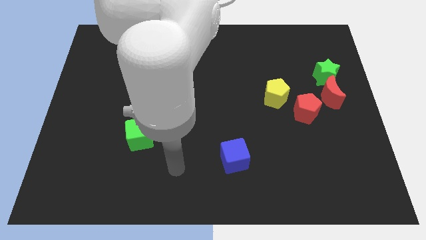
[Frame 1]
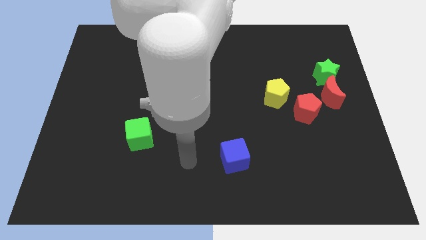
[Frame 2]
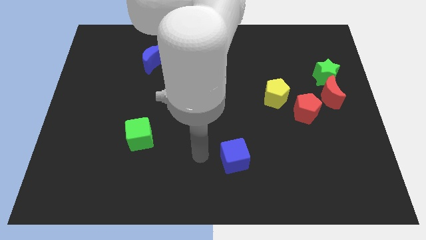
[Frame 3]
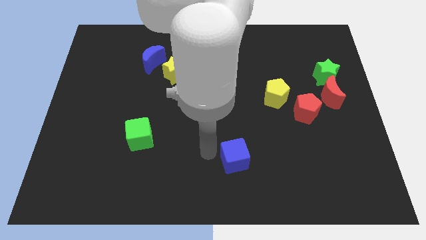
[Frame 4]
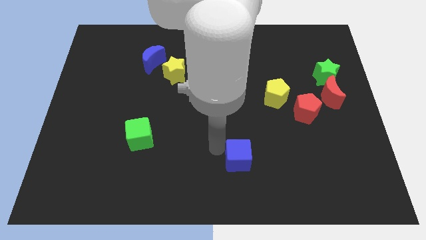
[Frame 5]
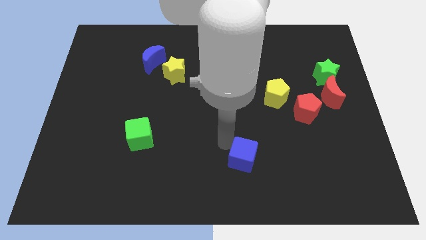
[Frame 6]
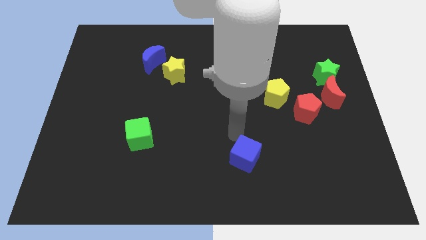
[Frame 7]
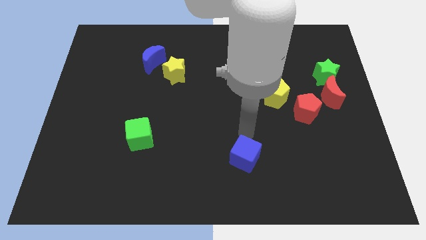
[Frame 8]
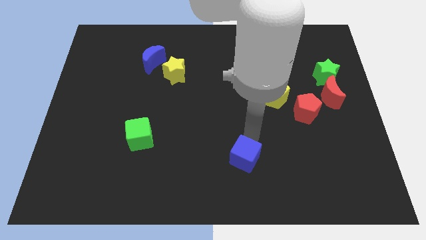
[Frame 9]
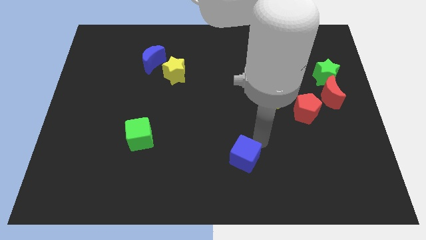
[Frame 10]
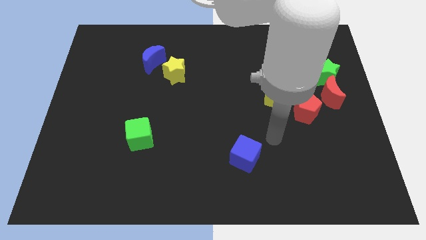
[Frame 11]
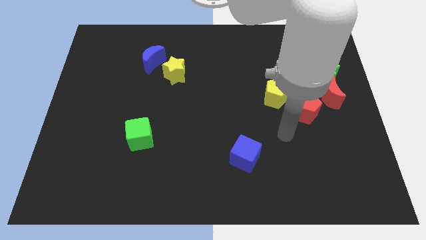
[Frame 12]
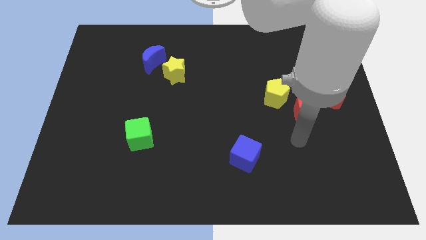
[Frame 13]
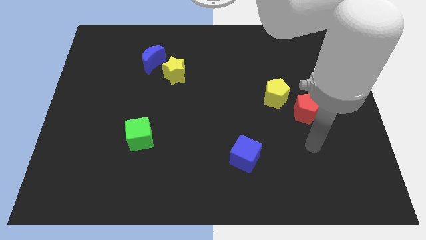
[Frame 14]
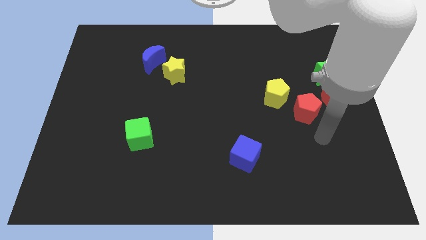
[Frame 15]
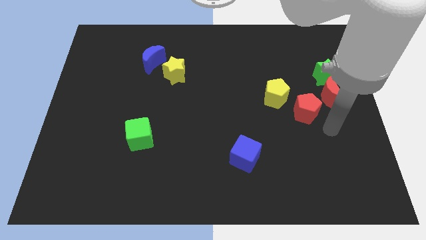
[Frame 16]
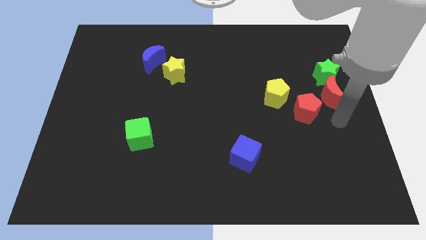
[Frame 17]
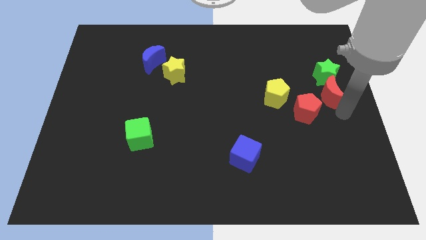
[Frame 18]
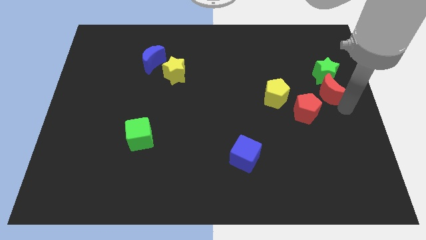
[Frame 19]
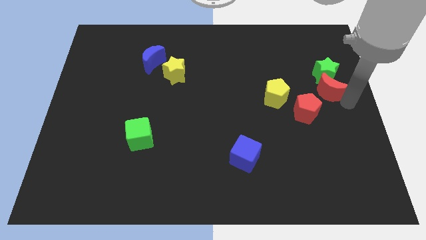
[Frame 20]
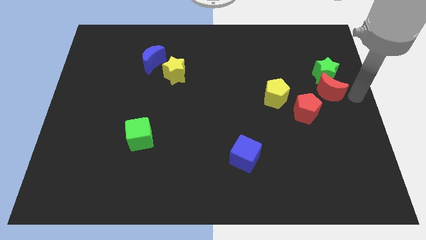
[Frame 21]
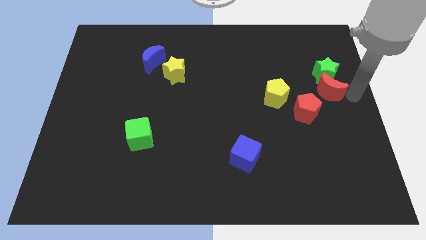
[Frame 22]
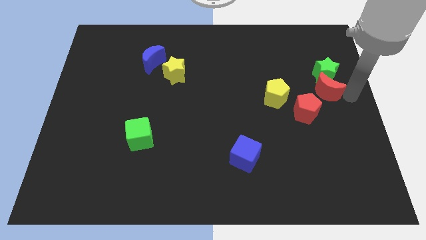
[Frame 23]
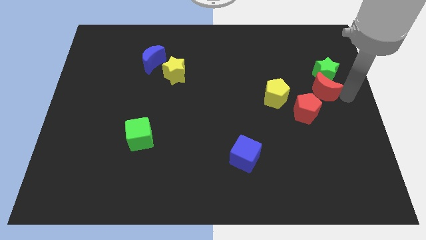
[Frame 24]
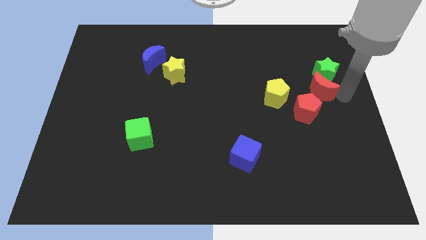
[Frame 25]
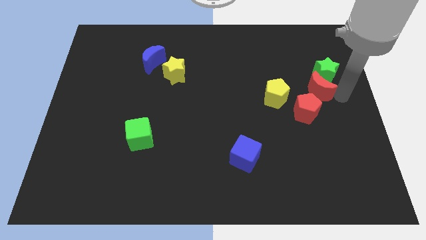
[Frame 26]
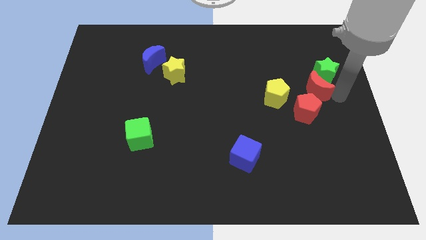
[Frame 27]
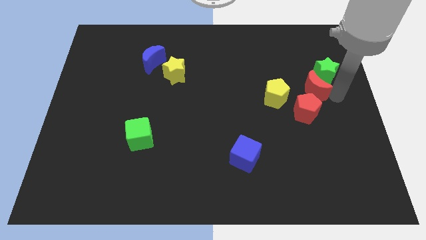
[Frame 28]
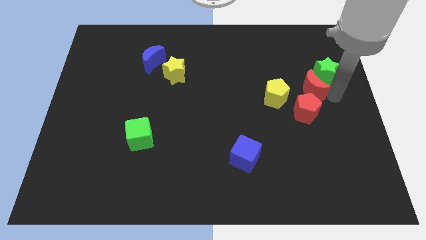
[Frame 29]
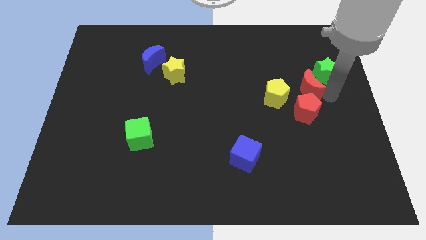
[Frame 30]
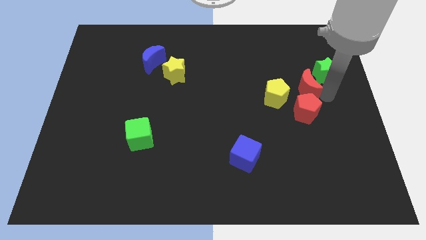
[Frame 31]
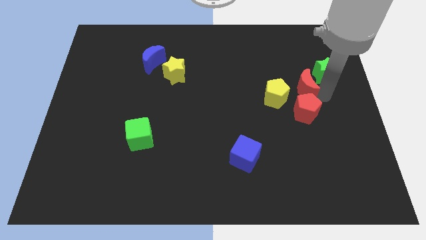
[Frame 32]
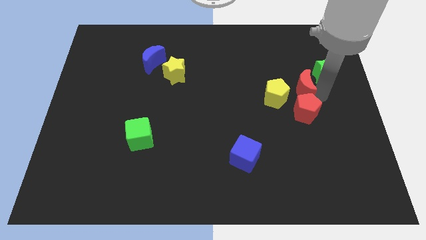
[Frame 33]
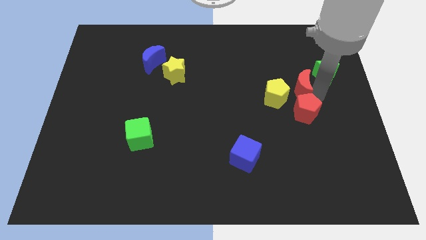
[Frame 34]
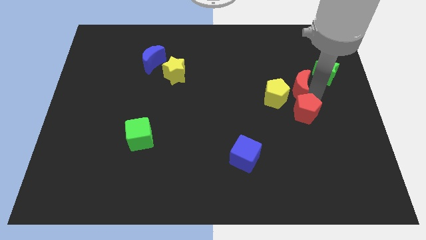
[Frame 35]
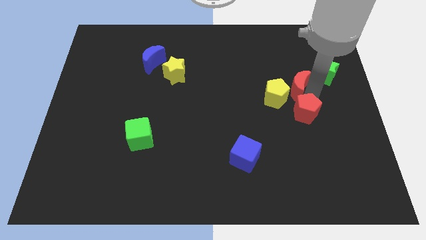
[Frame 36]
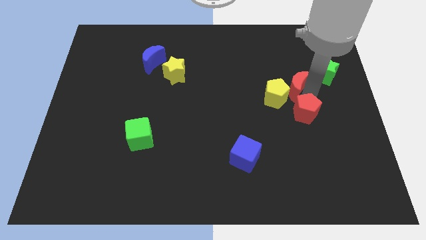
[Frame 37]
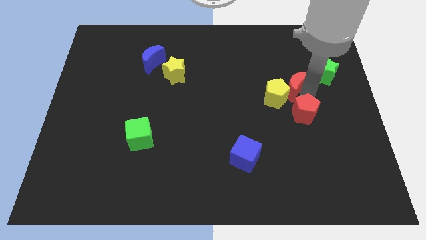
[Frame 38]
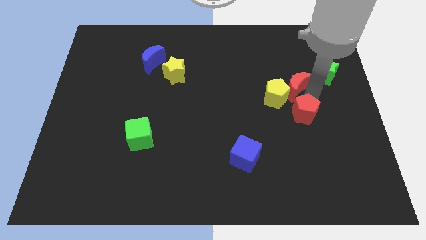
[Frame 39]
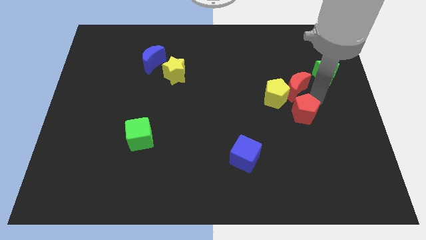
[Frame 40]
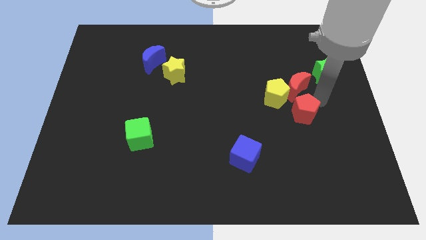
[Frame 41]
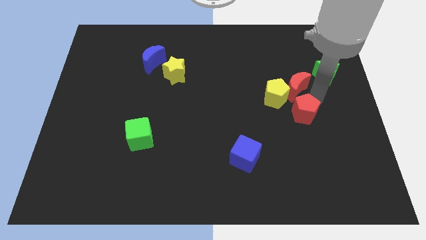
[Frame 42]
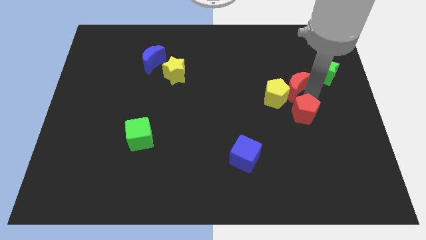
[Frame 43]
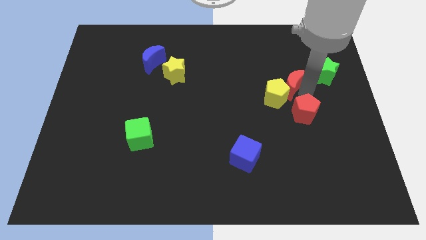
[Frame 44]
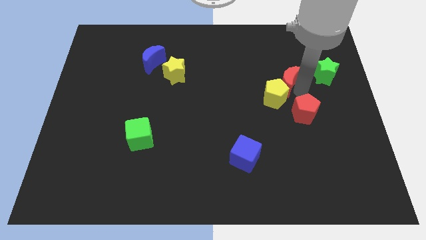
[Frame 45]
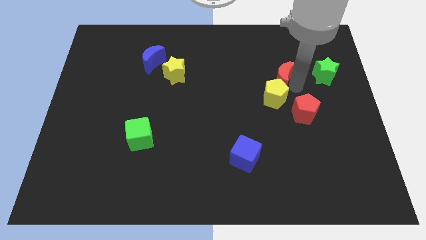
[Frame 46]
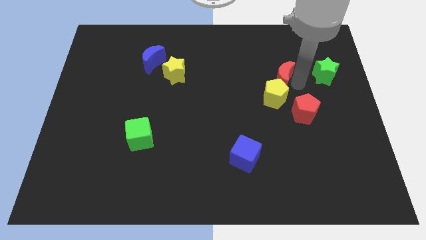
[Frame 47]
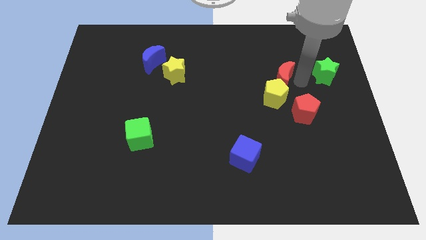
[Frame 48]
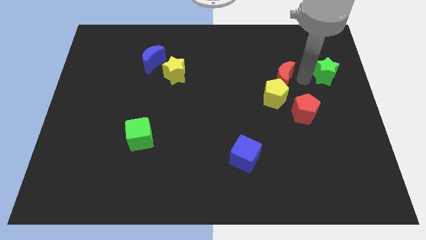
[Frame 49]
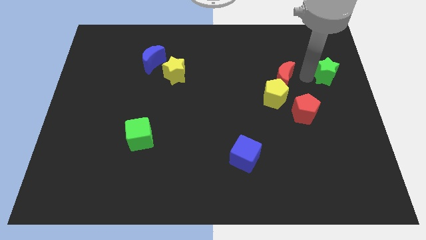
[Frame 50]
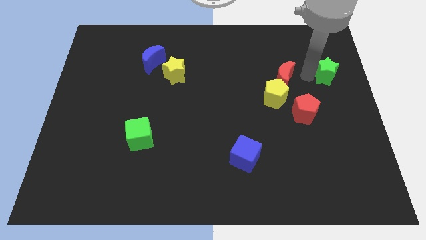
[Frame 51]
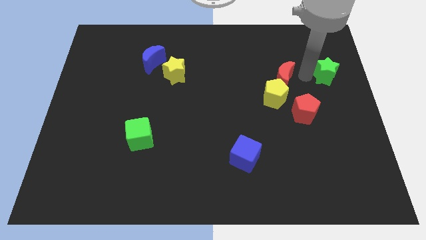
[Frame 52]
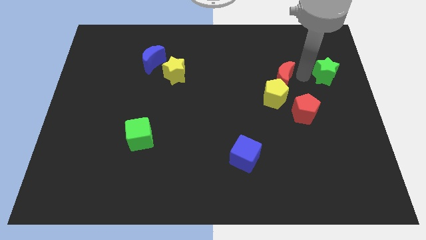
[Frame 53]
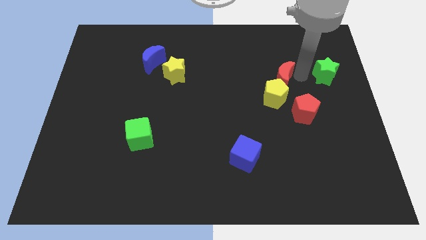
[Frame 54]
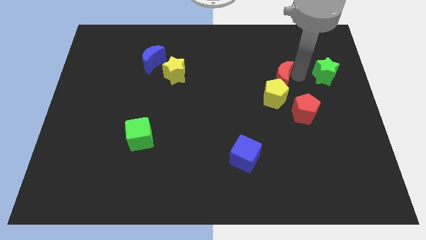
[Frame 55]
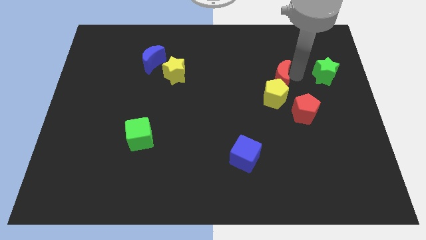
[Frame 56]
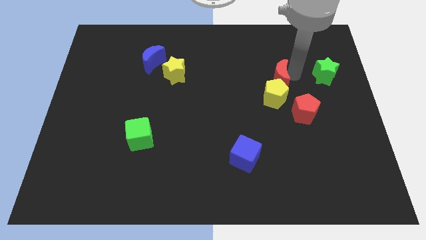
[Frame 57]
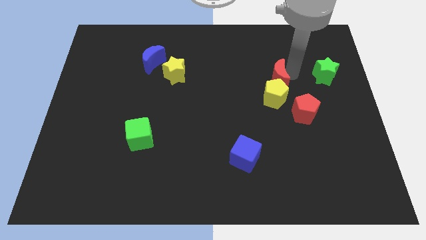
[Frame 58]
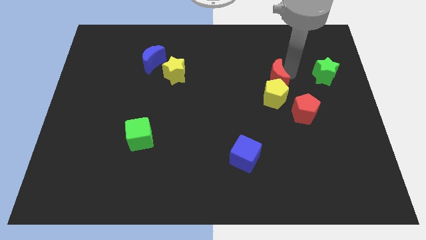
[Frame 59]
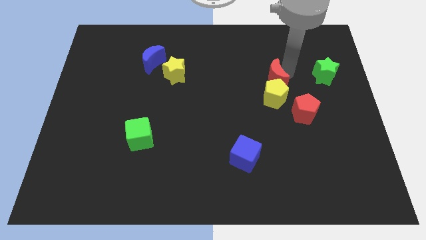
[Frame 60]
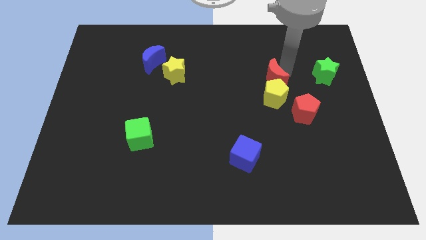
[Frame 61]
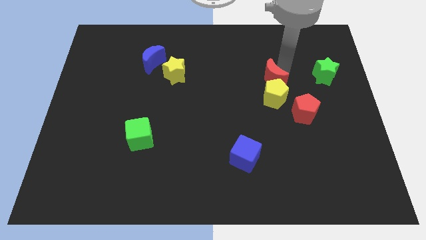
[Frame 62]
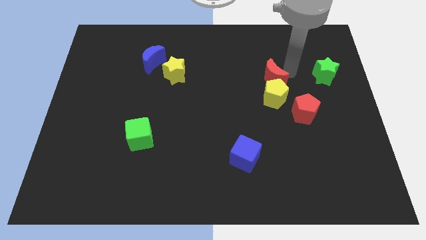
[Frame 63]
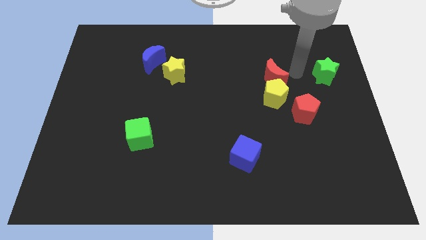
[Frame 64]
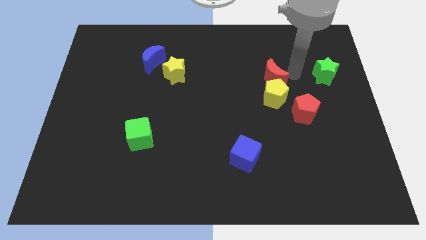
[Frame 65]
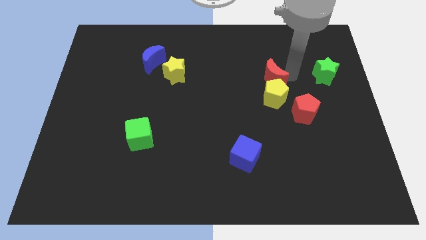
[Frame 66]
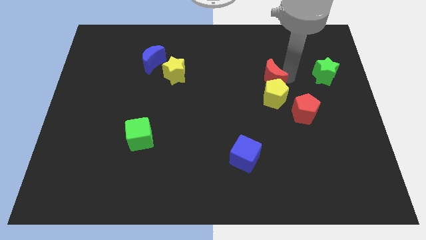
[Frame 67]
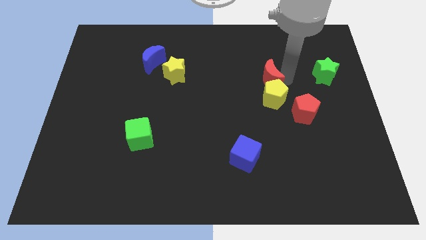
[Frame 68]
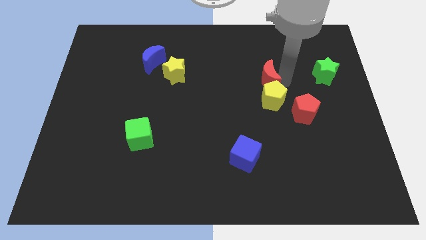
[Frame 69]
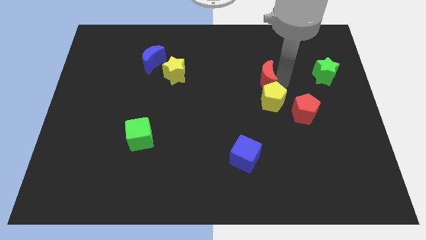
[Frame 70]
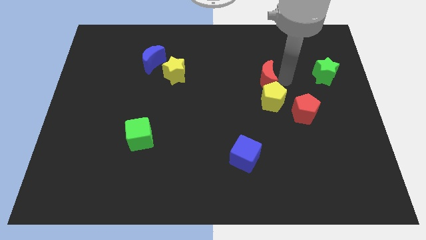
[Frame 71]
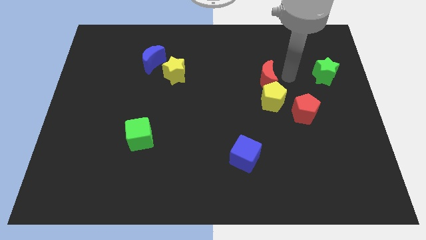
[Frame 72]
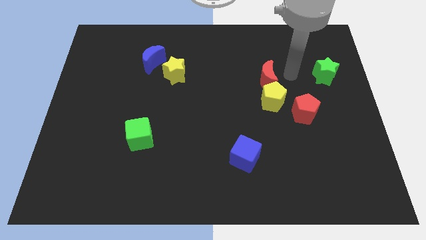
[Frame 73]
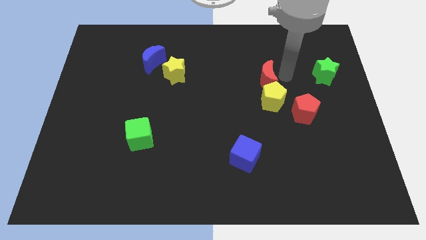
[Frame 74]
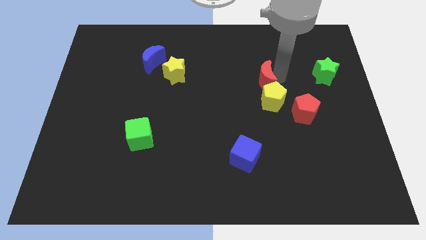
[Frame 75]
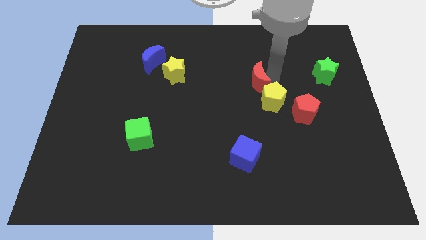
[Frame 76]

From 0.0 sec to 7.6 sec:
slide the red moon to the middle of the board

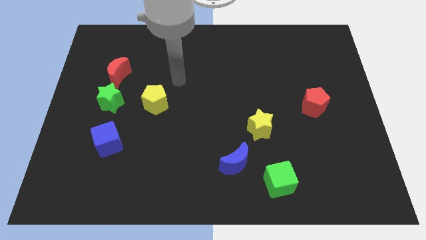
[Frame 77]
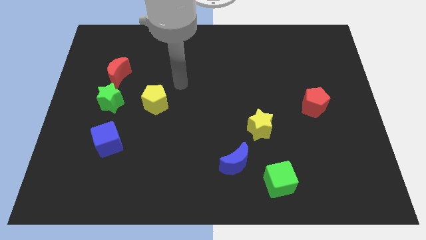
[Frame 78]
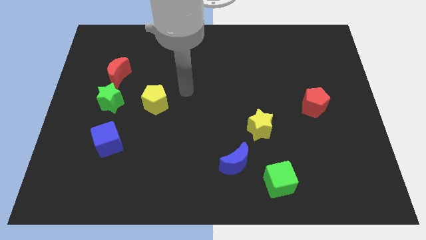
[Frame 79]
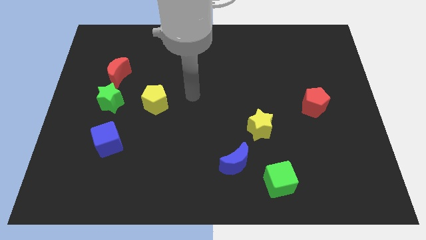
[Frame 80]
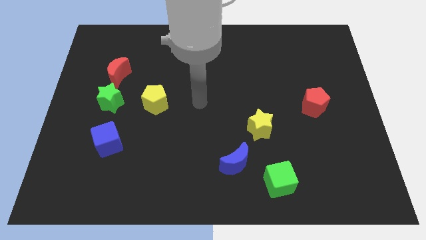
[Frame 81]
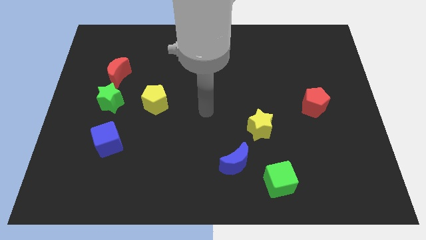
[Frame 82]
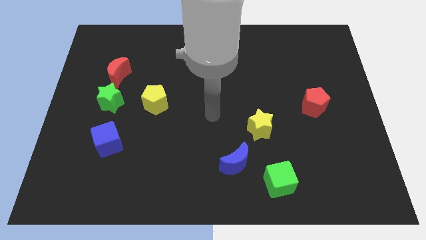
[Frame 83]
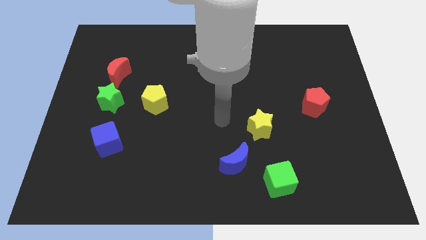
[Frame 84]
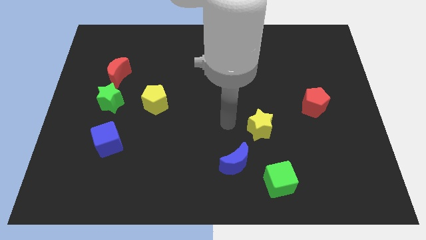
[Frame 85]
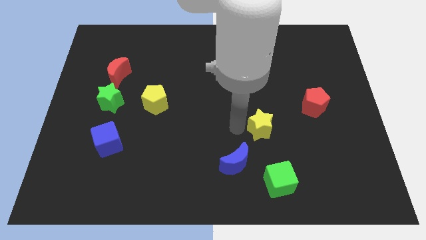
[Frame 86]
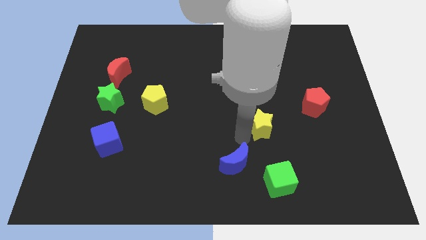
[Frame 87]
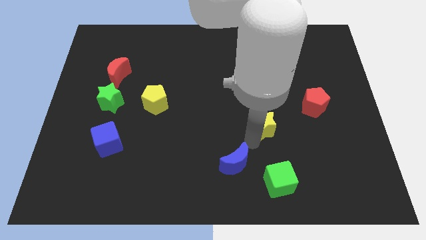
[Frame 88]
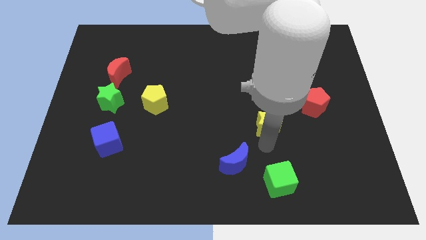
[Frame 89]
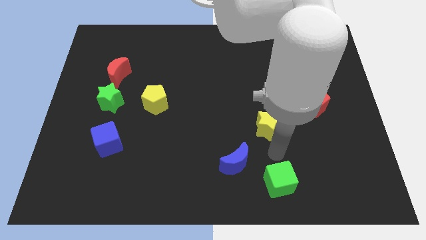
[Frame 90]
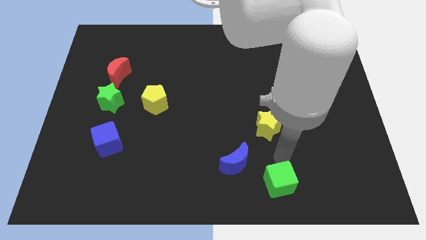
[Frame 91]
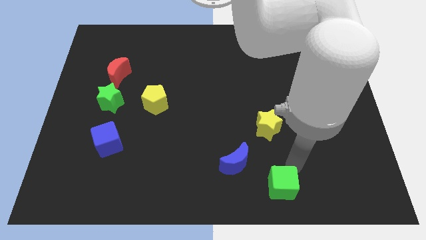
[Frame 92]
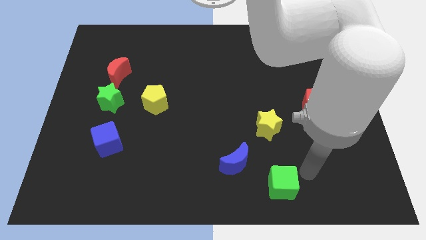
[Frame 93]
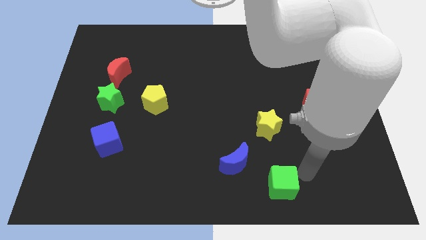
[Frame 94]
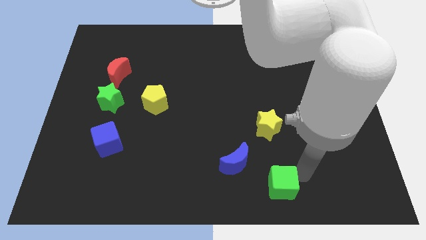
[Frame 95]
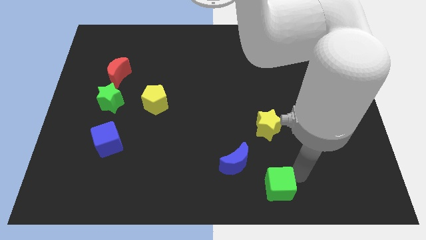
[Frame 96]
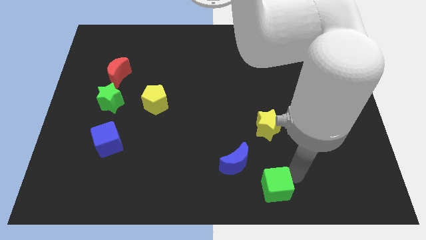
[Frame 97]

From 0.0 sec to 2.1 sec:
put the green cube to the bottom
